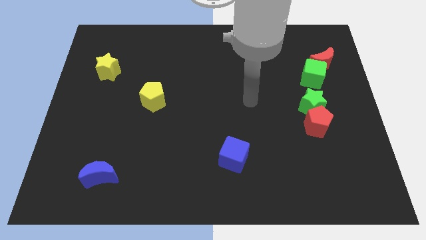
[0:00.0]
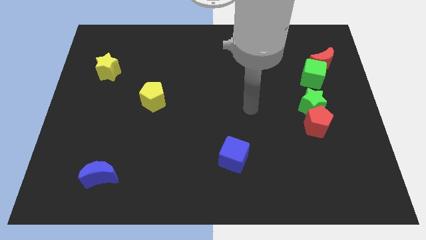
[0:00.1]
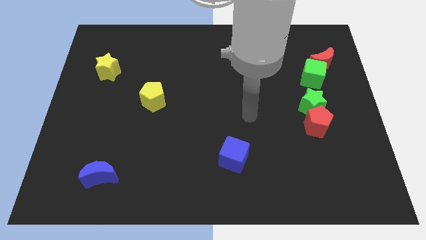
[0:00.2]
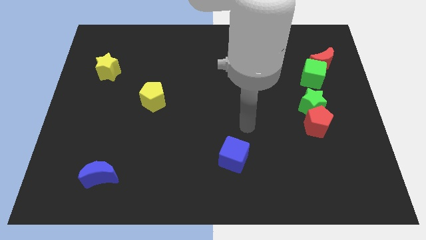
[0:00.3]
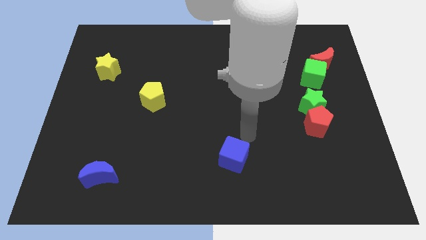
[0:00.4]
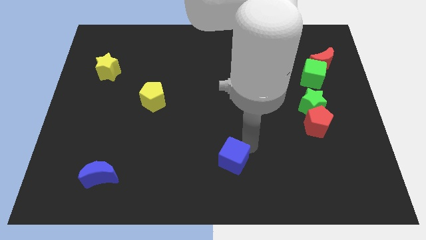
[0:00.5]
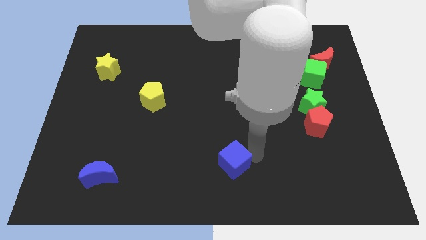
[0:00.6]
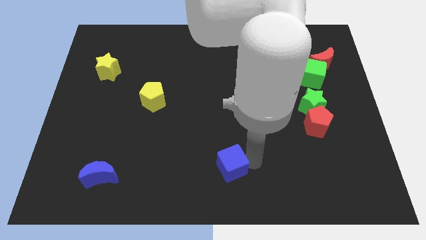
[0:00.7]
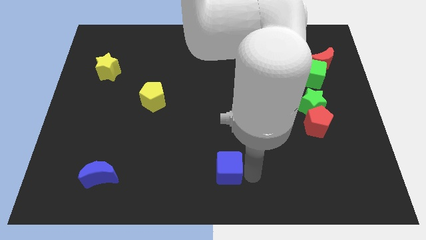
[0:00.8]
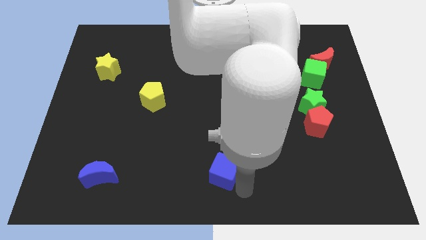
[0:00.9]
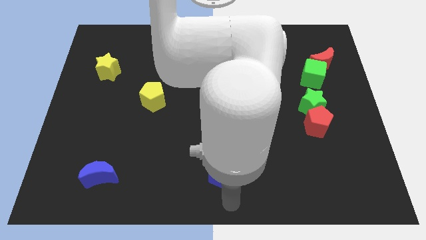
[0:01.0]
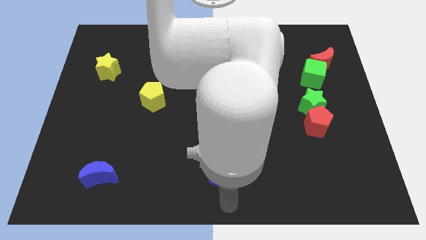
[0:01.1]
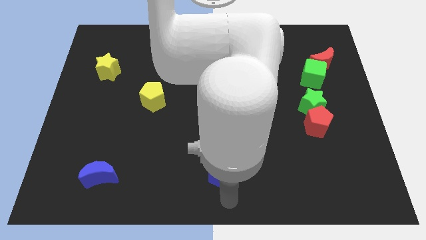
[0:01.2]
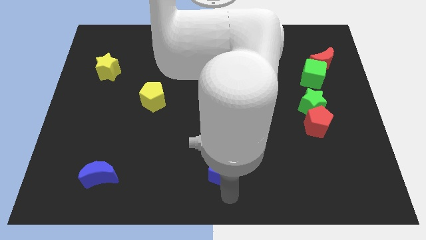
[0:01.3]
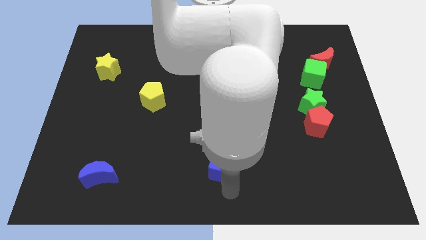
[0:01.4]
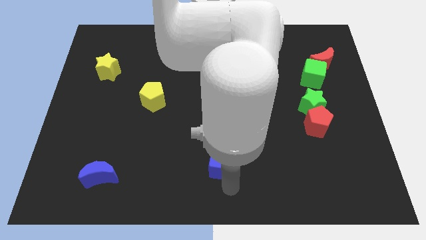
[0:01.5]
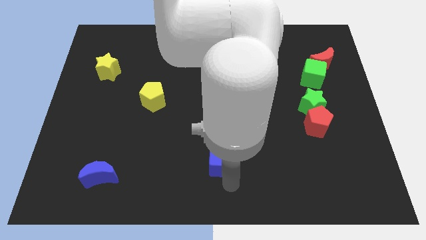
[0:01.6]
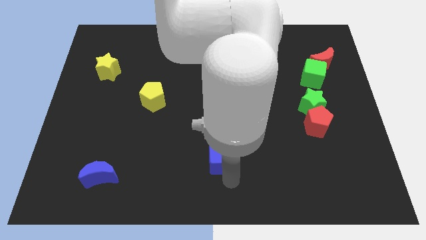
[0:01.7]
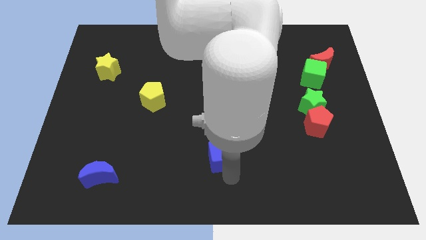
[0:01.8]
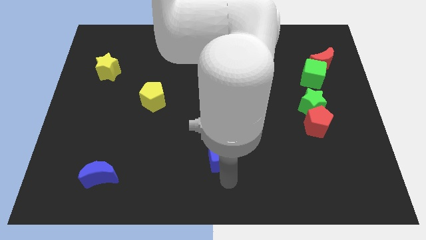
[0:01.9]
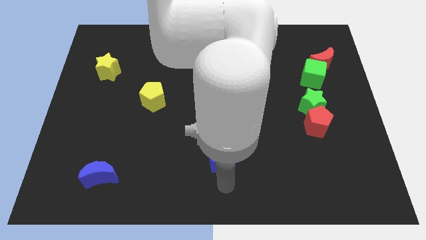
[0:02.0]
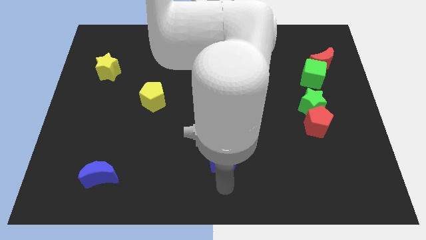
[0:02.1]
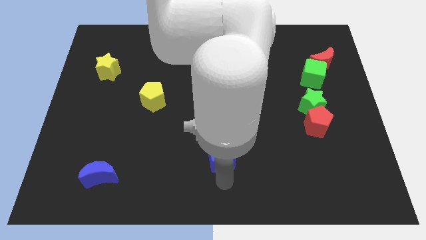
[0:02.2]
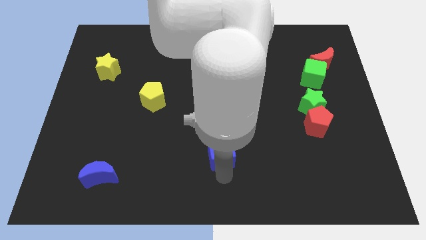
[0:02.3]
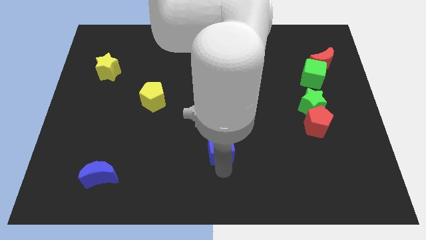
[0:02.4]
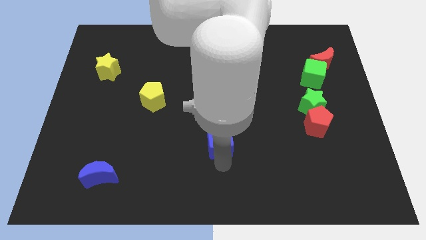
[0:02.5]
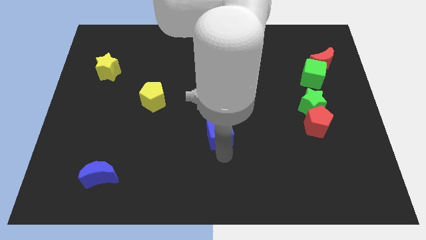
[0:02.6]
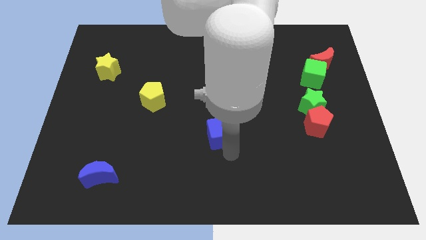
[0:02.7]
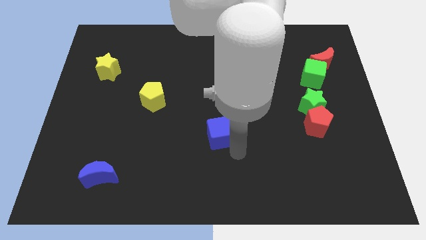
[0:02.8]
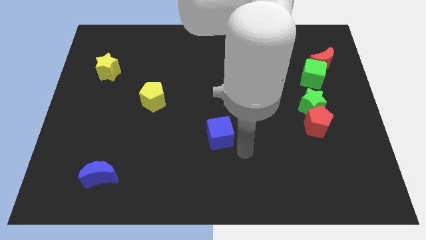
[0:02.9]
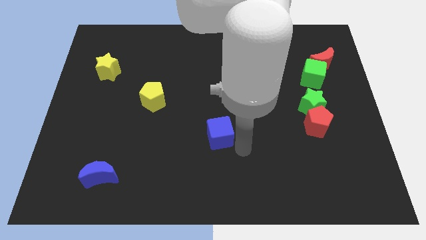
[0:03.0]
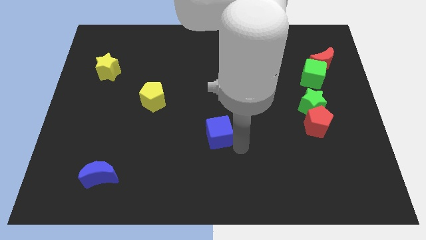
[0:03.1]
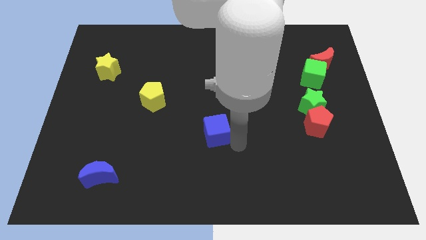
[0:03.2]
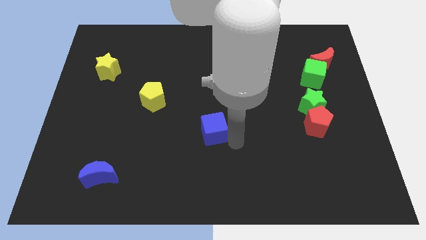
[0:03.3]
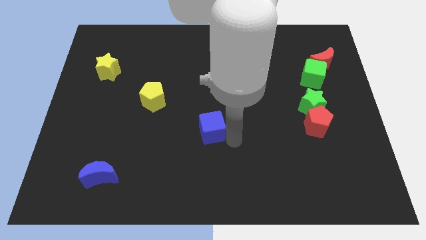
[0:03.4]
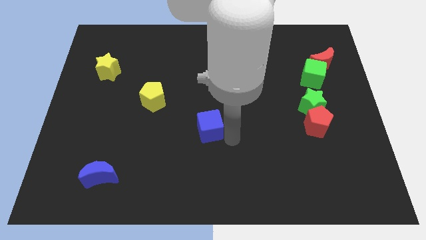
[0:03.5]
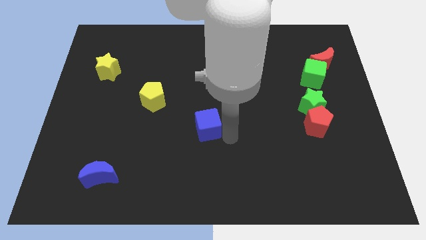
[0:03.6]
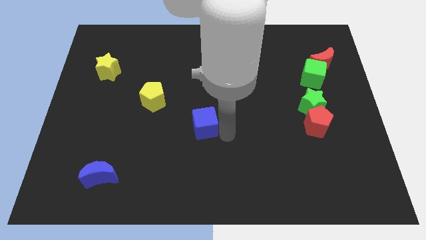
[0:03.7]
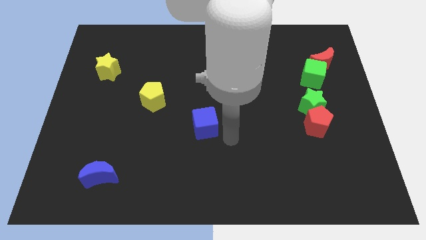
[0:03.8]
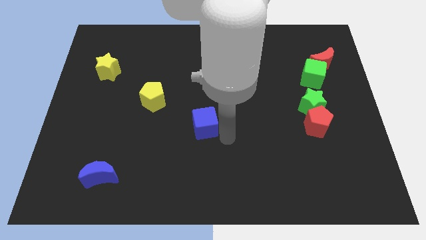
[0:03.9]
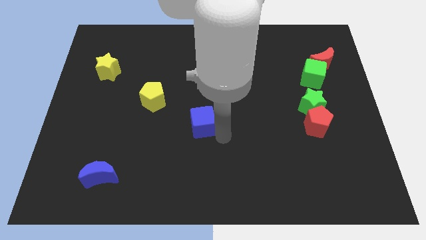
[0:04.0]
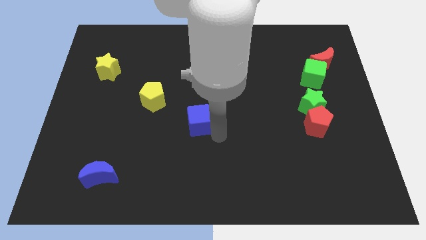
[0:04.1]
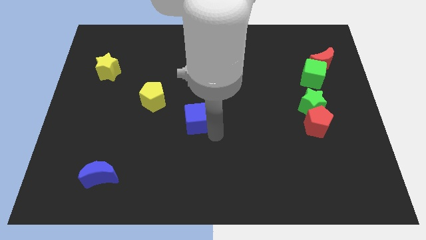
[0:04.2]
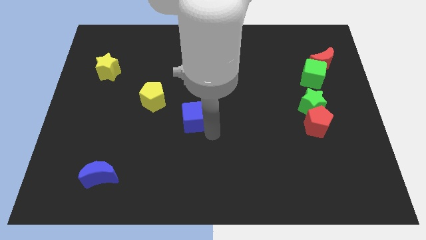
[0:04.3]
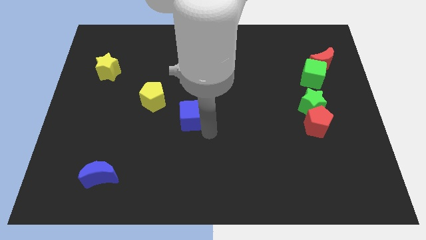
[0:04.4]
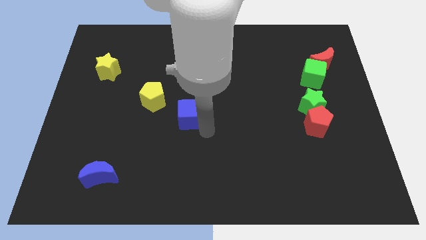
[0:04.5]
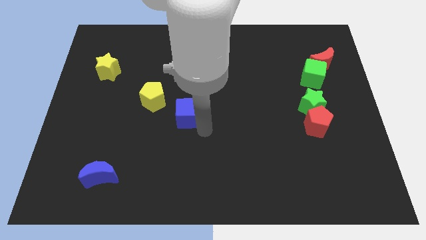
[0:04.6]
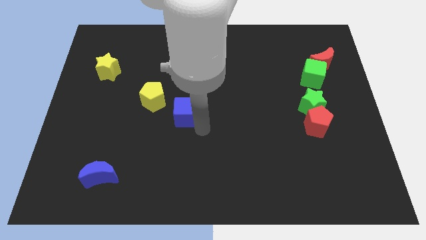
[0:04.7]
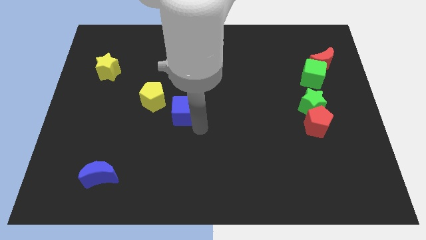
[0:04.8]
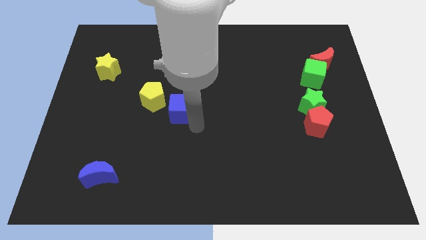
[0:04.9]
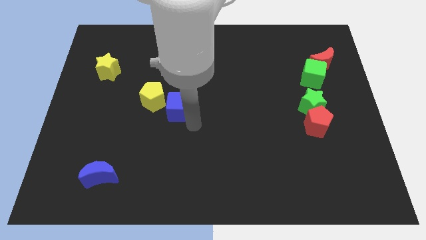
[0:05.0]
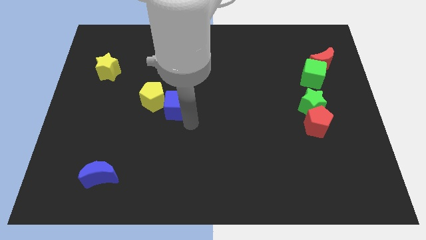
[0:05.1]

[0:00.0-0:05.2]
slide the blue cube next to the yellow pentagon

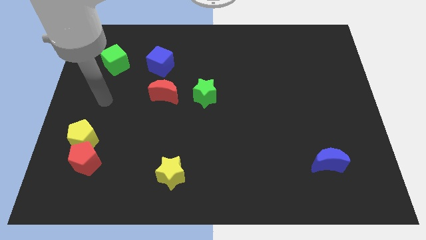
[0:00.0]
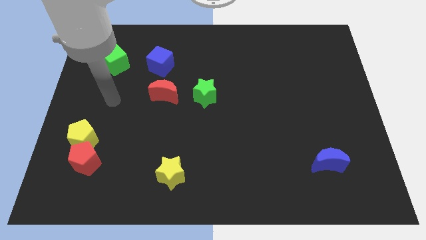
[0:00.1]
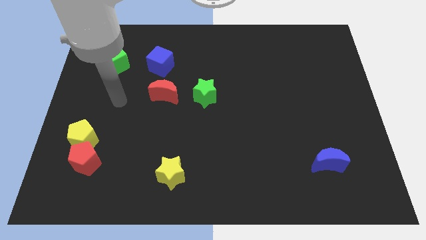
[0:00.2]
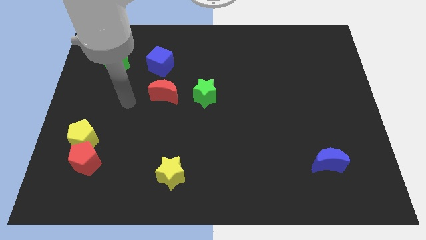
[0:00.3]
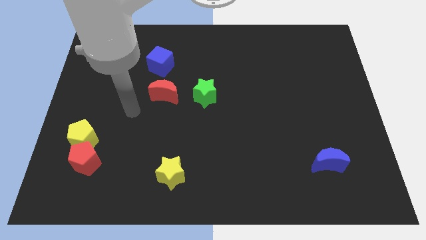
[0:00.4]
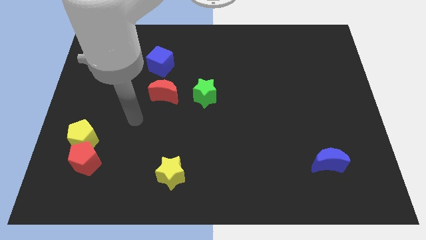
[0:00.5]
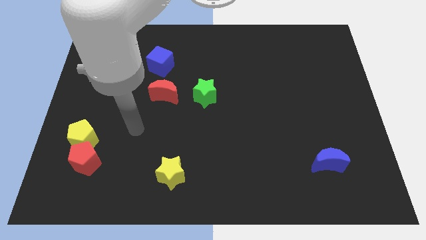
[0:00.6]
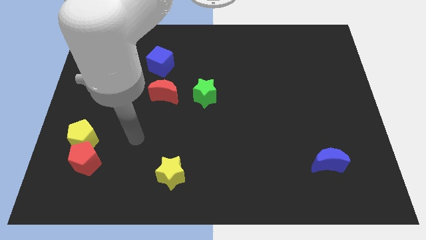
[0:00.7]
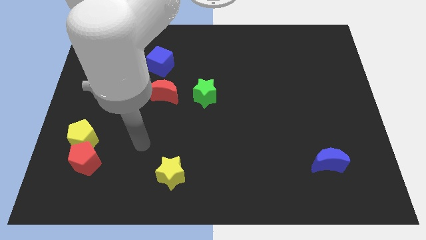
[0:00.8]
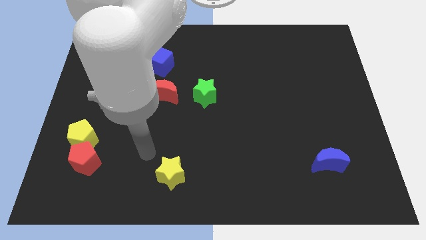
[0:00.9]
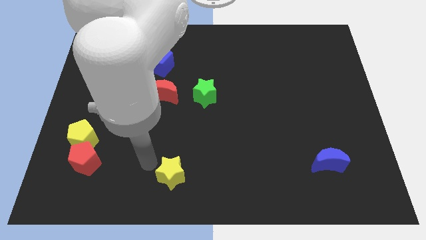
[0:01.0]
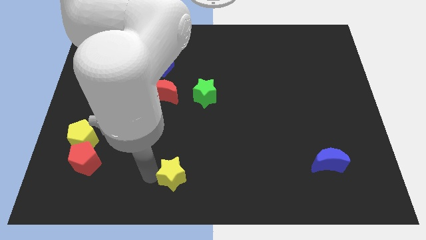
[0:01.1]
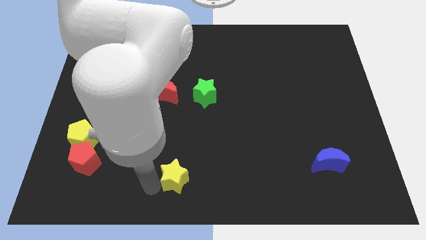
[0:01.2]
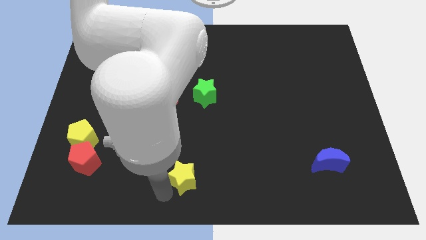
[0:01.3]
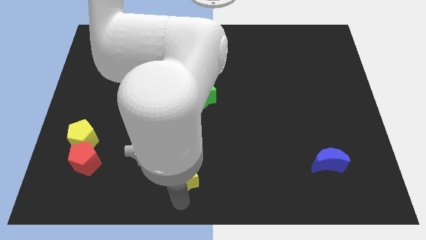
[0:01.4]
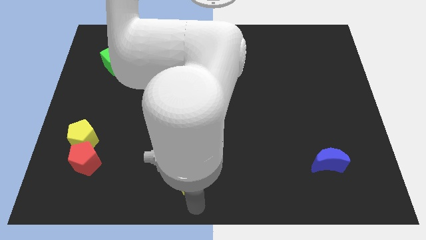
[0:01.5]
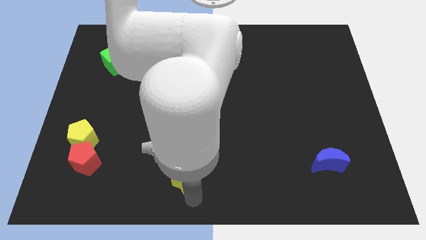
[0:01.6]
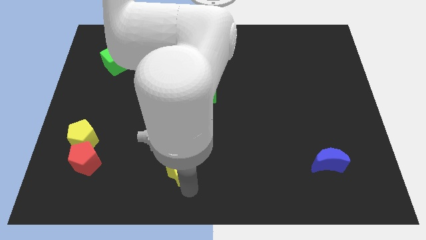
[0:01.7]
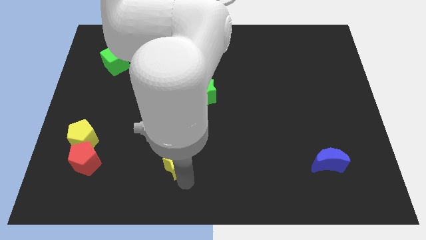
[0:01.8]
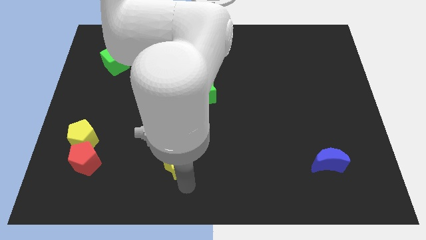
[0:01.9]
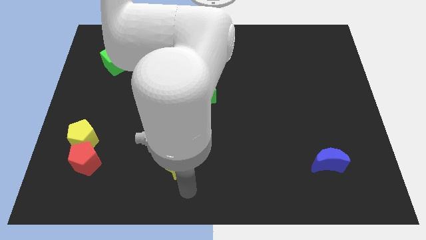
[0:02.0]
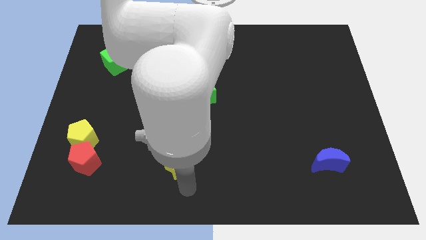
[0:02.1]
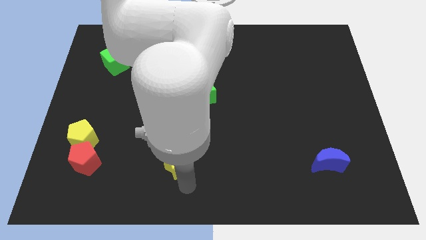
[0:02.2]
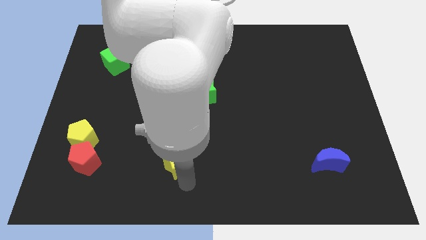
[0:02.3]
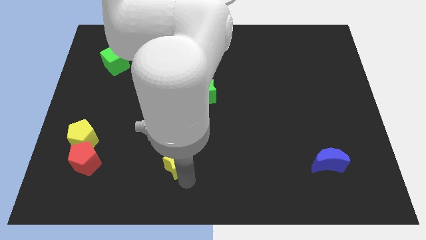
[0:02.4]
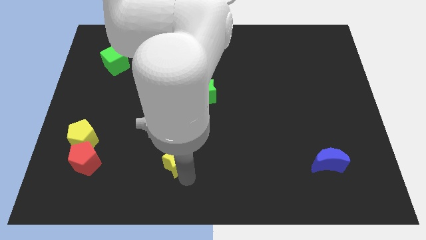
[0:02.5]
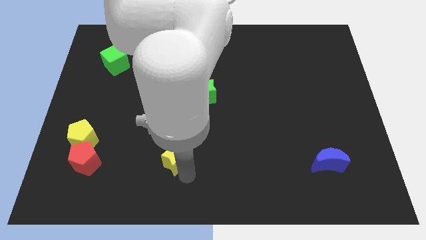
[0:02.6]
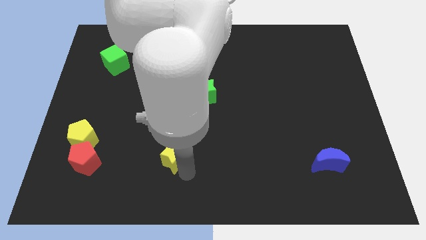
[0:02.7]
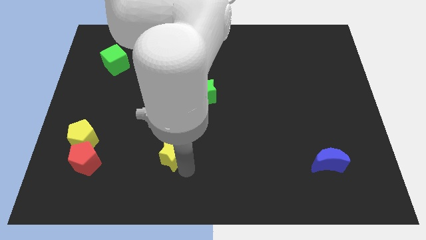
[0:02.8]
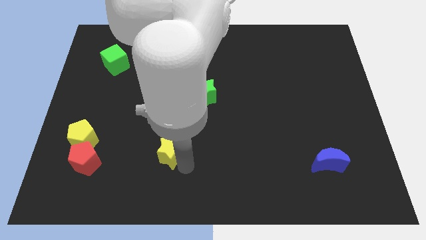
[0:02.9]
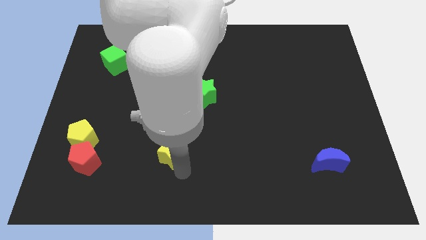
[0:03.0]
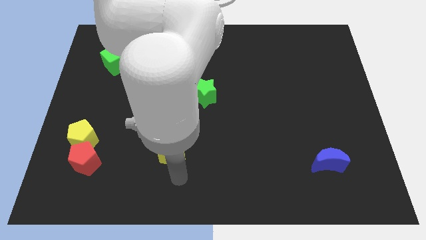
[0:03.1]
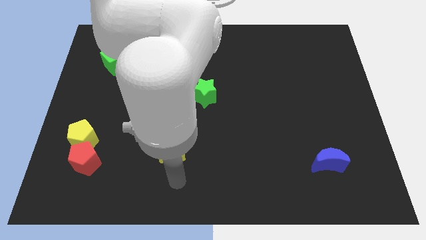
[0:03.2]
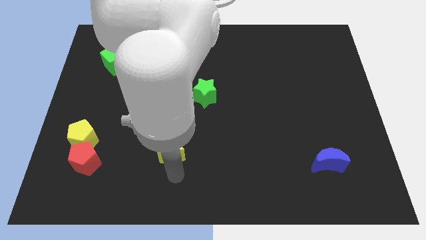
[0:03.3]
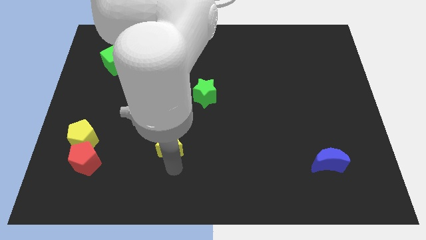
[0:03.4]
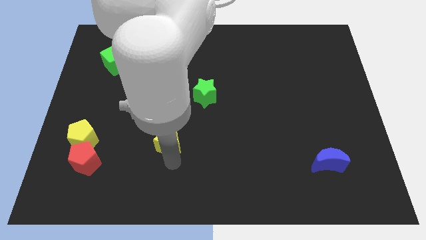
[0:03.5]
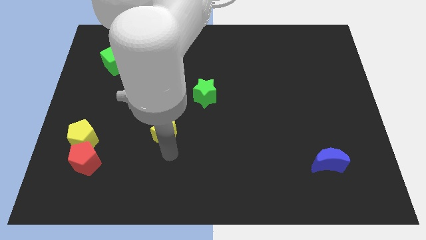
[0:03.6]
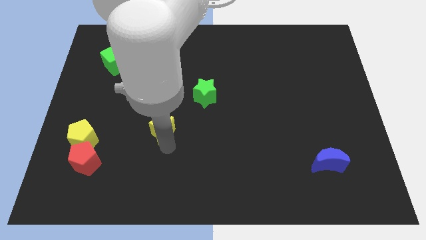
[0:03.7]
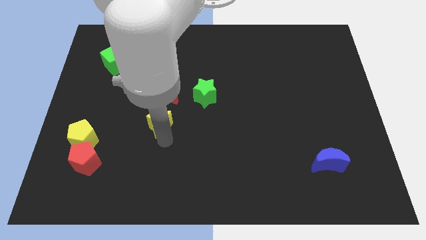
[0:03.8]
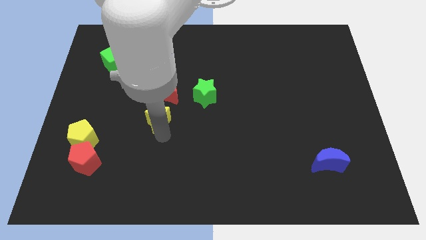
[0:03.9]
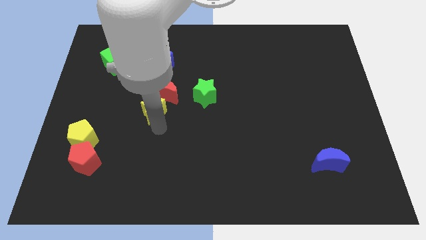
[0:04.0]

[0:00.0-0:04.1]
move the yellow star to the red moon
